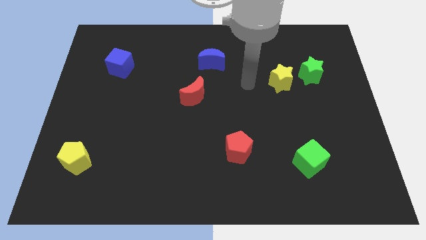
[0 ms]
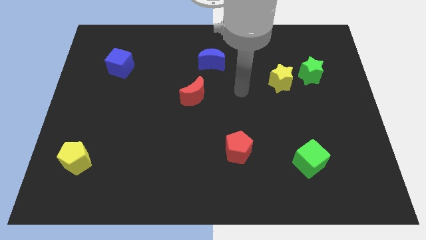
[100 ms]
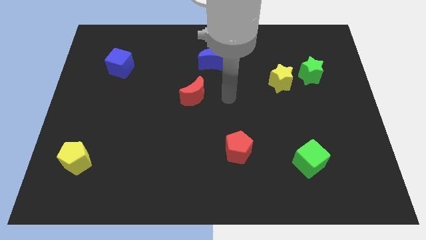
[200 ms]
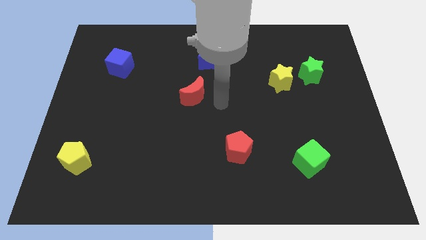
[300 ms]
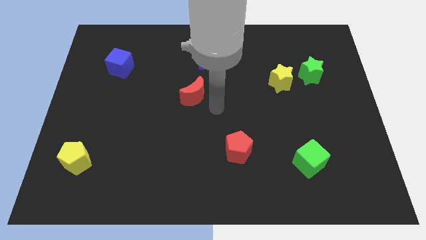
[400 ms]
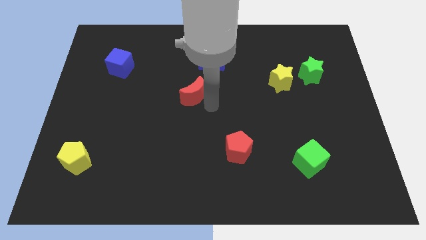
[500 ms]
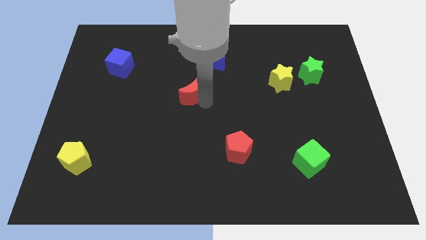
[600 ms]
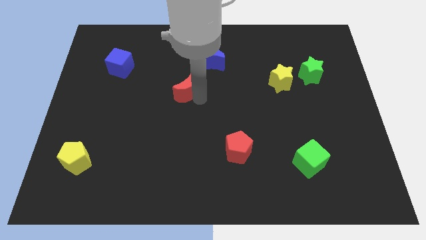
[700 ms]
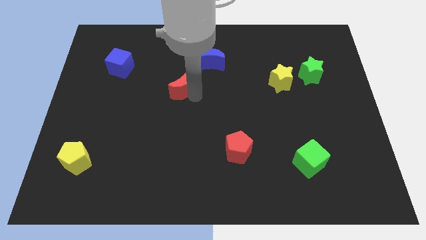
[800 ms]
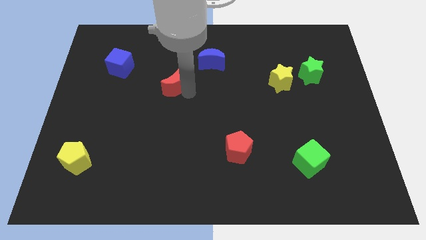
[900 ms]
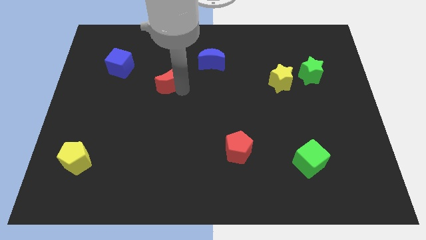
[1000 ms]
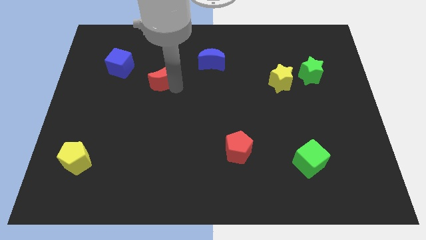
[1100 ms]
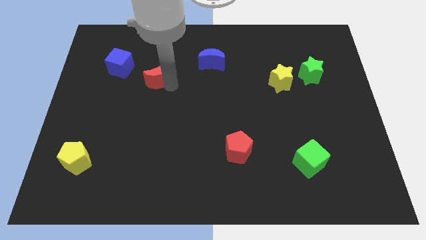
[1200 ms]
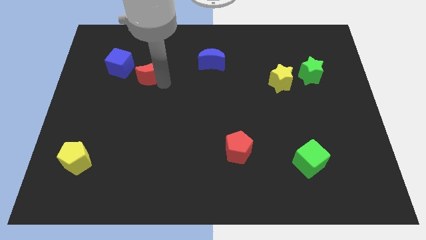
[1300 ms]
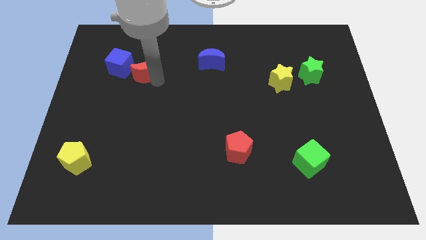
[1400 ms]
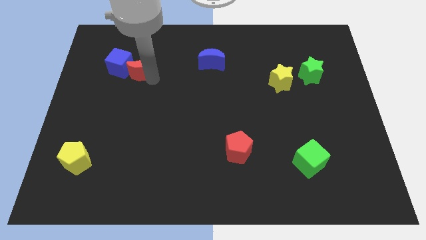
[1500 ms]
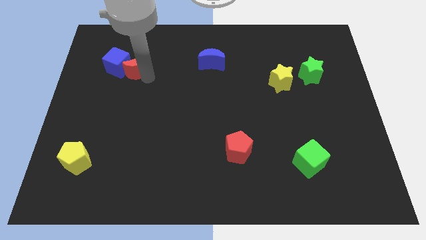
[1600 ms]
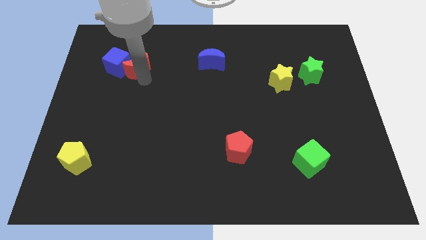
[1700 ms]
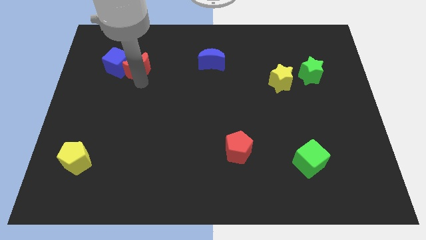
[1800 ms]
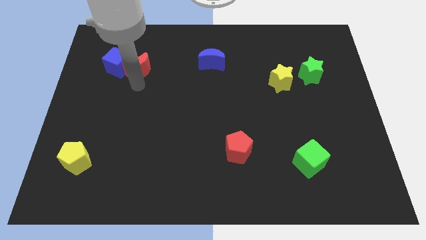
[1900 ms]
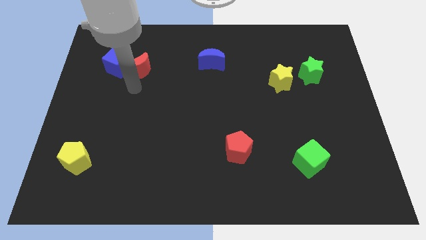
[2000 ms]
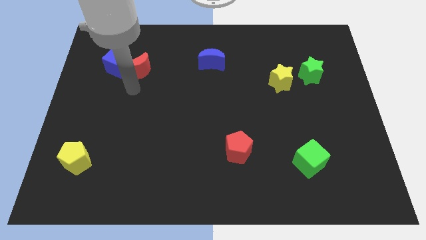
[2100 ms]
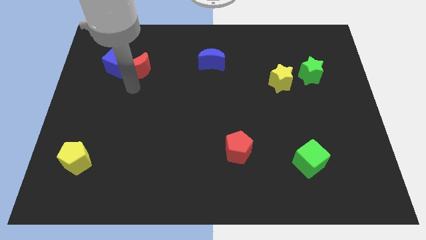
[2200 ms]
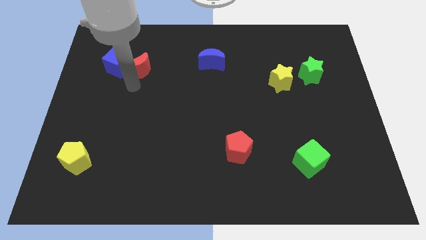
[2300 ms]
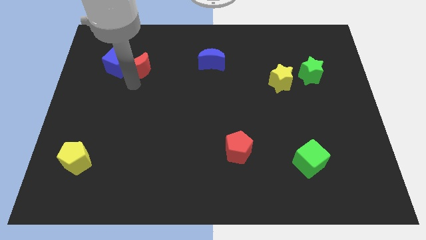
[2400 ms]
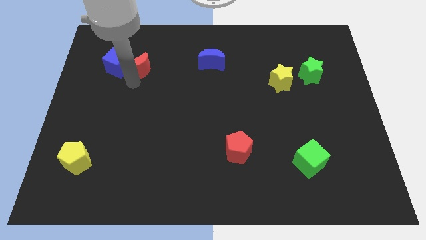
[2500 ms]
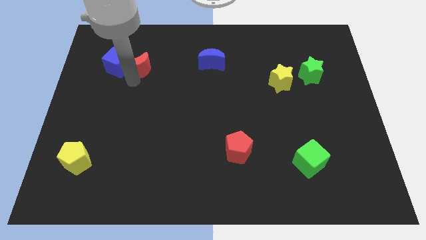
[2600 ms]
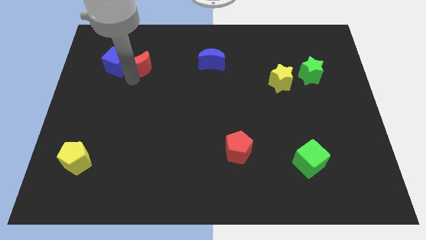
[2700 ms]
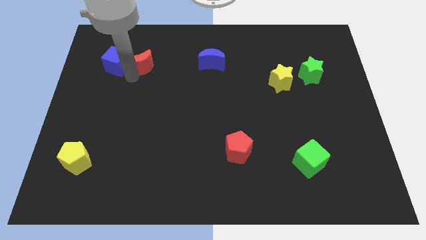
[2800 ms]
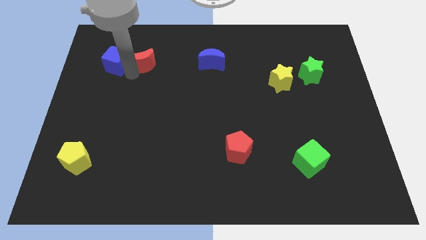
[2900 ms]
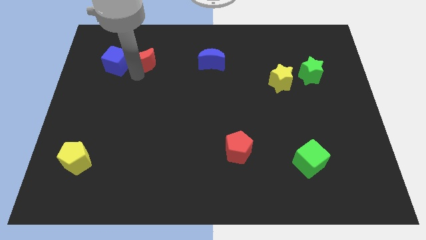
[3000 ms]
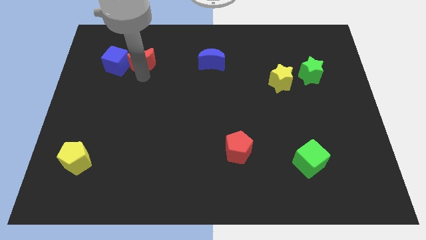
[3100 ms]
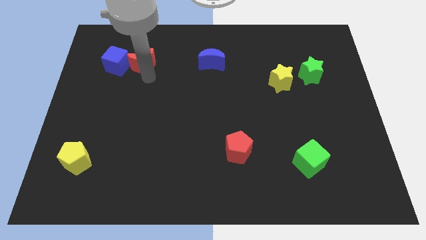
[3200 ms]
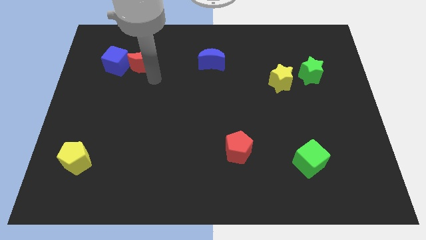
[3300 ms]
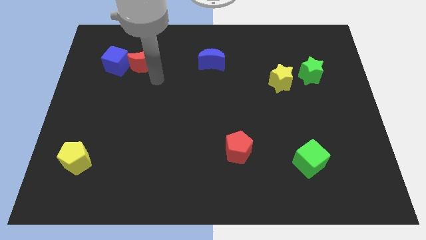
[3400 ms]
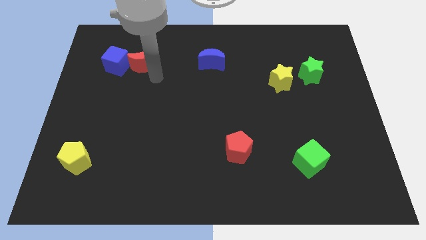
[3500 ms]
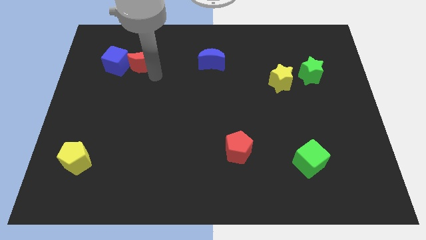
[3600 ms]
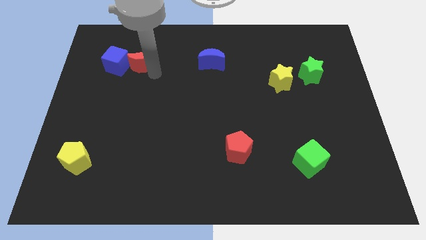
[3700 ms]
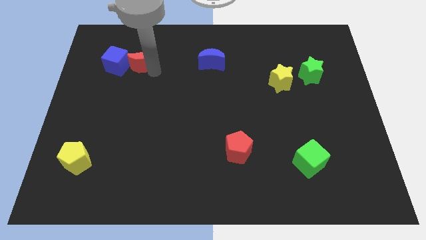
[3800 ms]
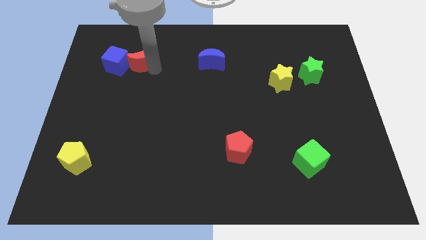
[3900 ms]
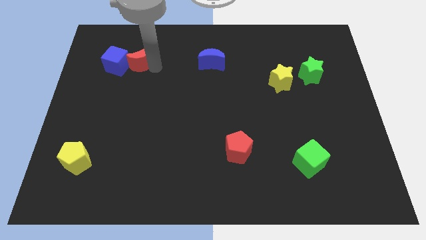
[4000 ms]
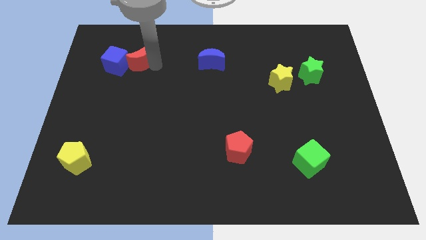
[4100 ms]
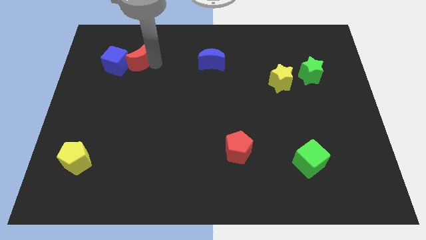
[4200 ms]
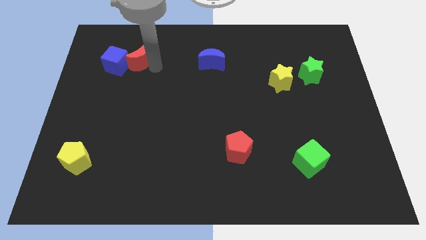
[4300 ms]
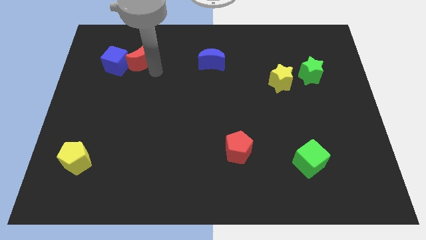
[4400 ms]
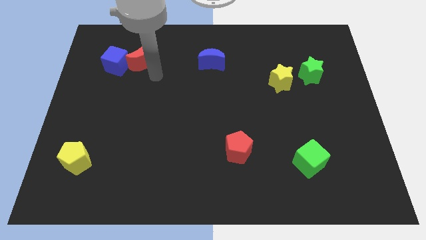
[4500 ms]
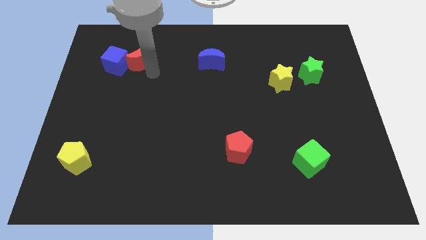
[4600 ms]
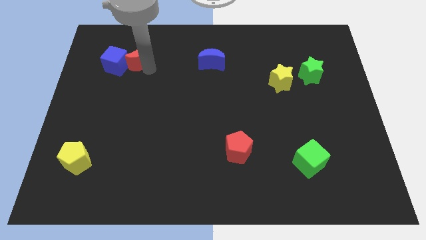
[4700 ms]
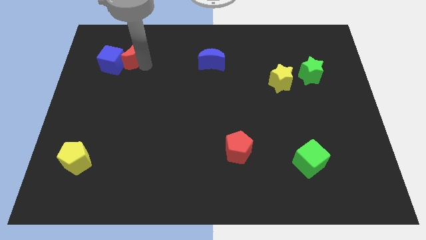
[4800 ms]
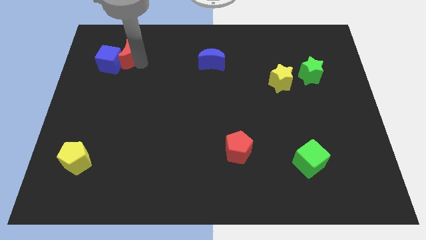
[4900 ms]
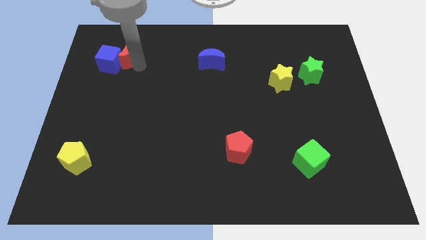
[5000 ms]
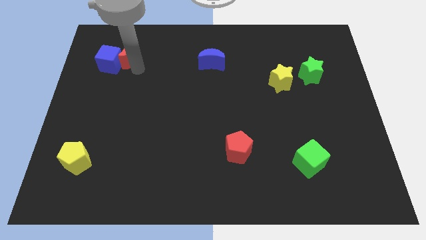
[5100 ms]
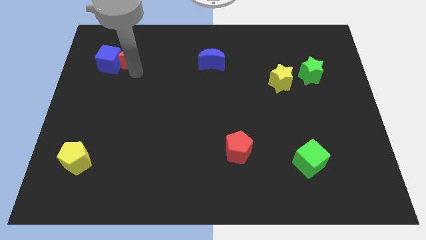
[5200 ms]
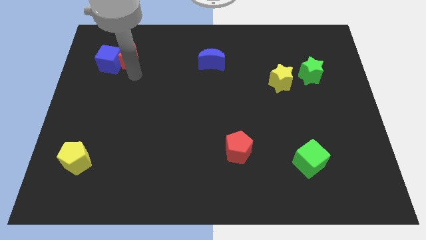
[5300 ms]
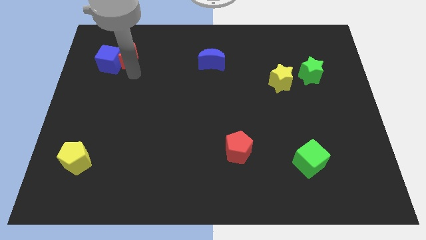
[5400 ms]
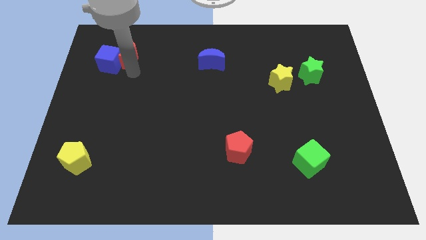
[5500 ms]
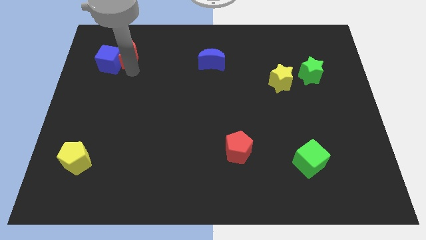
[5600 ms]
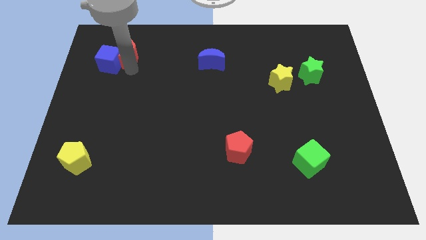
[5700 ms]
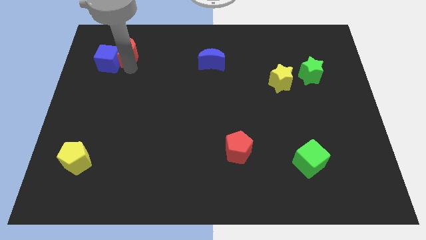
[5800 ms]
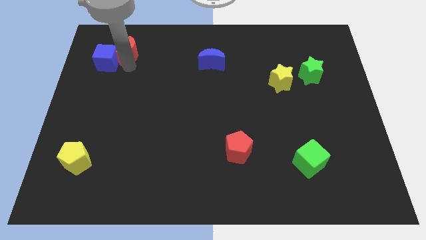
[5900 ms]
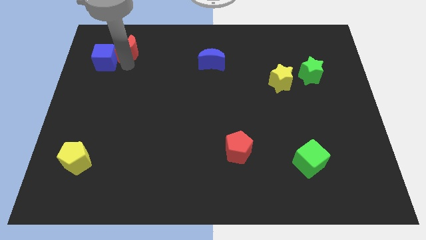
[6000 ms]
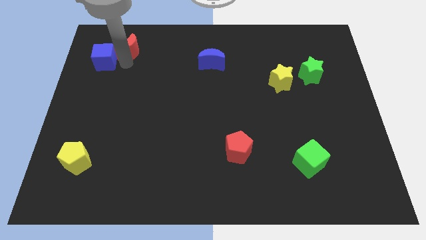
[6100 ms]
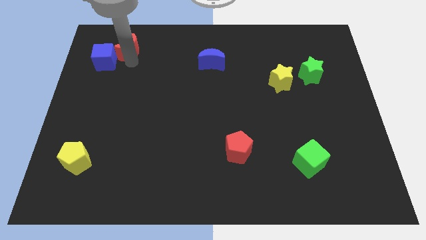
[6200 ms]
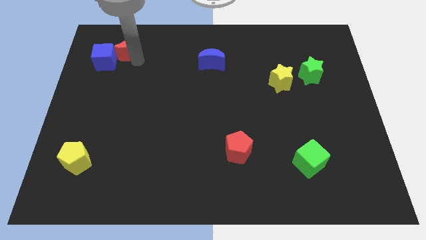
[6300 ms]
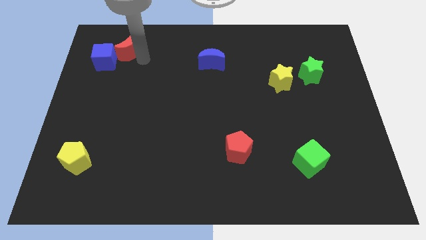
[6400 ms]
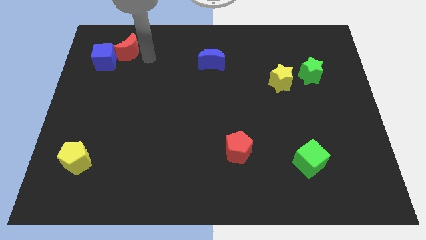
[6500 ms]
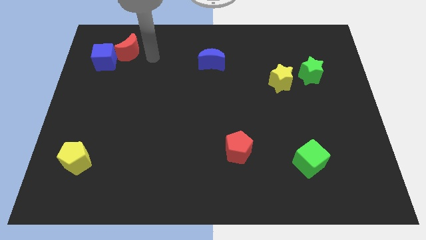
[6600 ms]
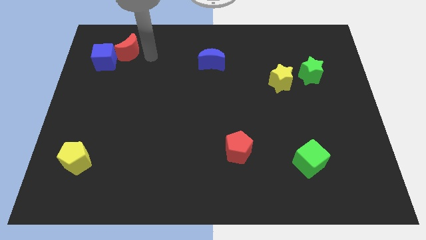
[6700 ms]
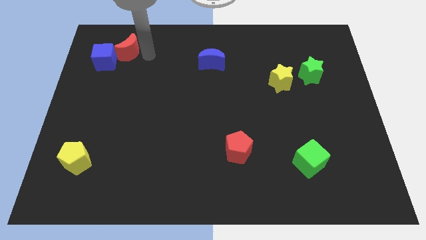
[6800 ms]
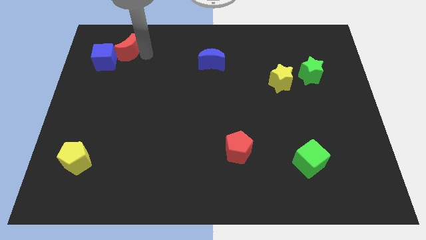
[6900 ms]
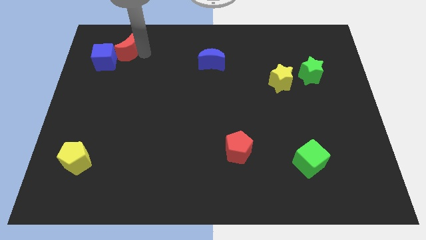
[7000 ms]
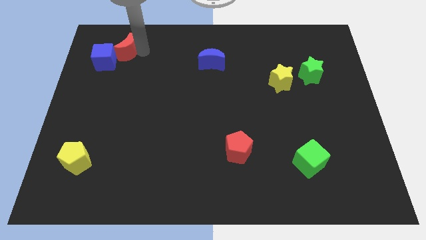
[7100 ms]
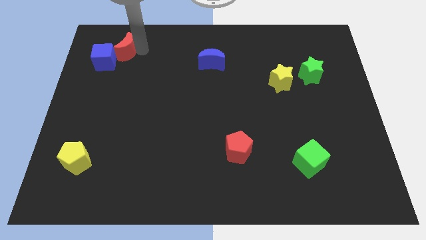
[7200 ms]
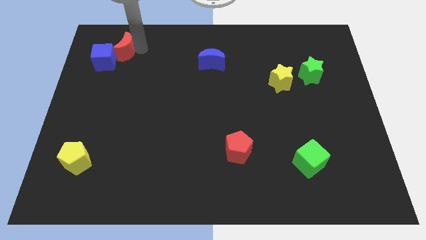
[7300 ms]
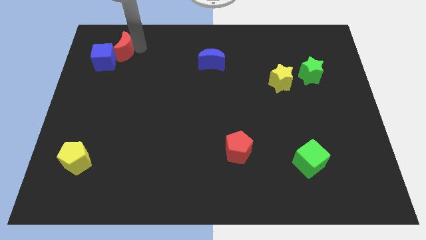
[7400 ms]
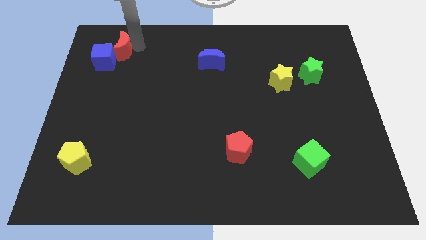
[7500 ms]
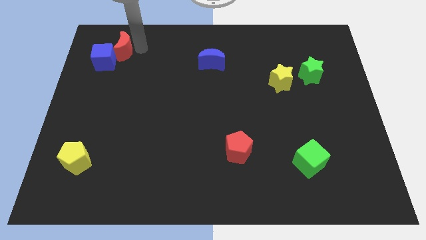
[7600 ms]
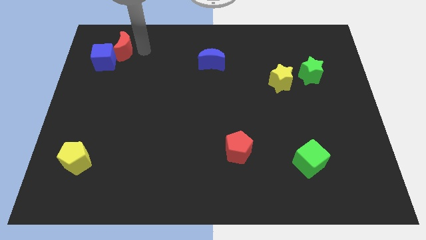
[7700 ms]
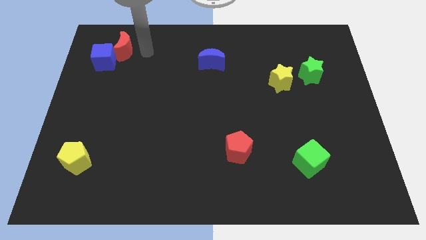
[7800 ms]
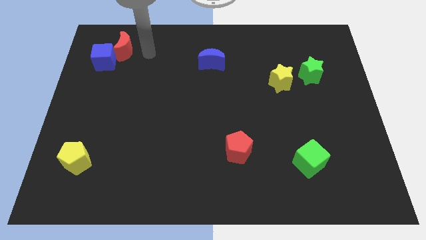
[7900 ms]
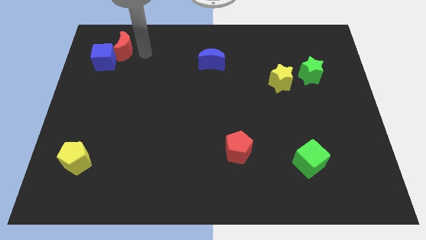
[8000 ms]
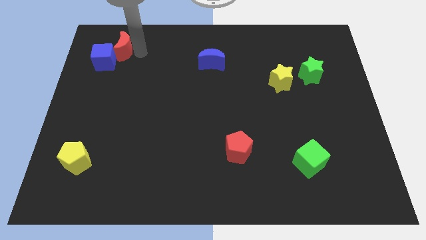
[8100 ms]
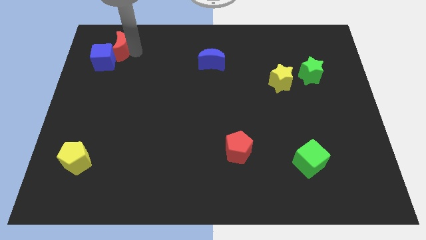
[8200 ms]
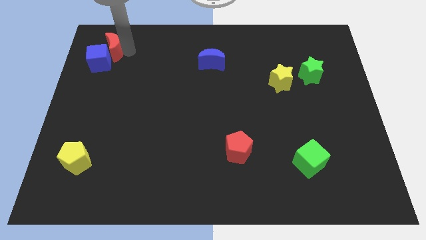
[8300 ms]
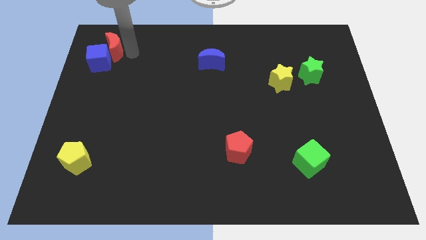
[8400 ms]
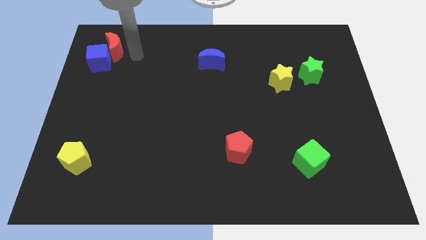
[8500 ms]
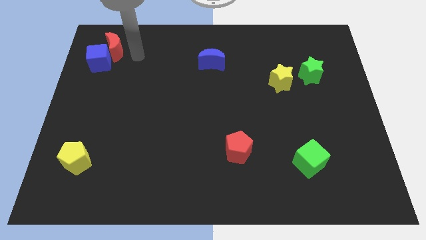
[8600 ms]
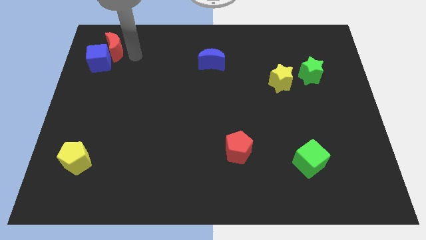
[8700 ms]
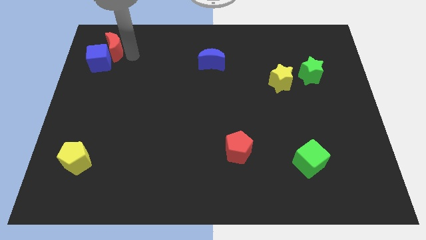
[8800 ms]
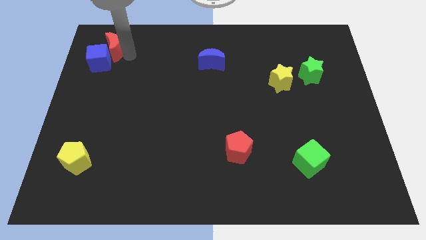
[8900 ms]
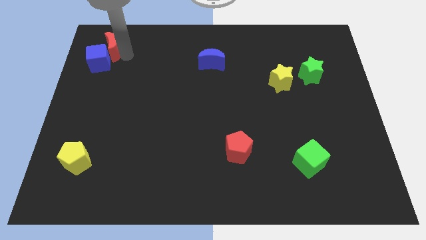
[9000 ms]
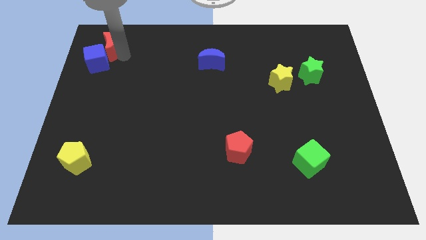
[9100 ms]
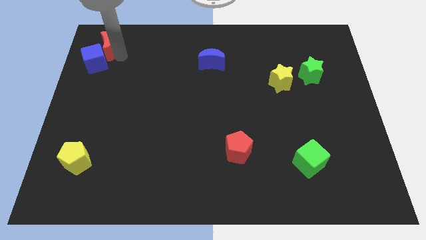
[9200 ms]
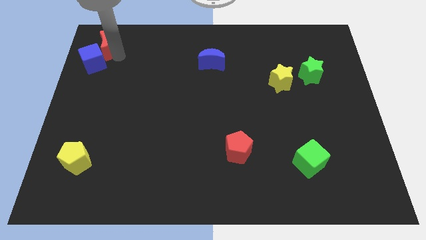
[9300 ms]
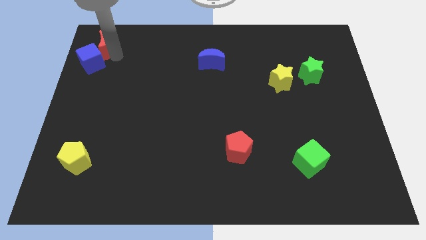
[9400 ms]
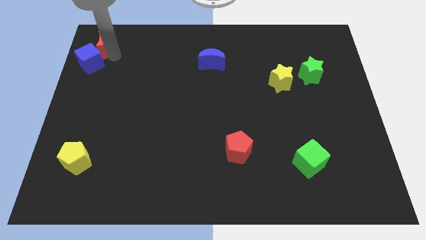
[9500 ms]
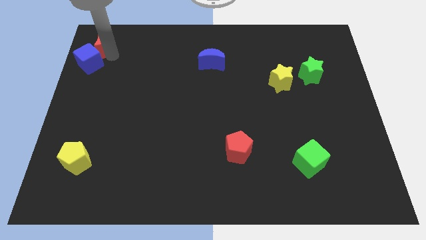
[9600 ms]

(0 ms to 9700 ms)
put the red moon to the top left
